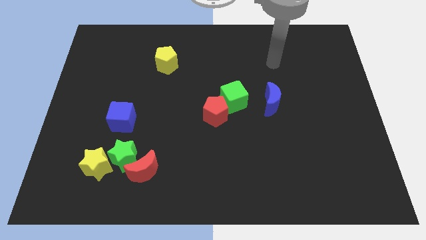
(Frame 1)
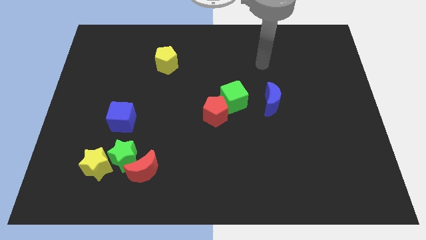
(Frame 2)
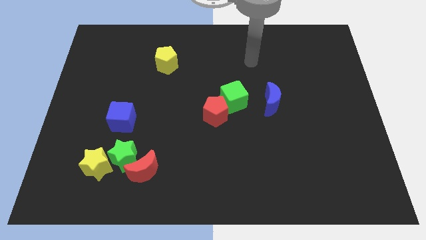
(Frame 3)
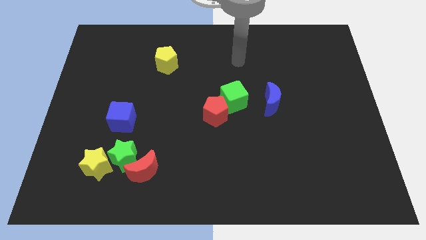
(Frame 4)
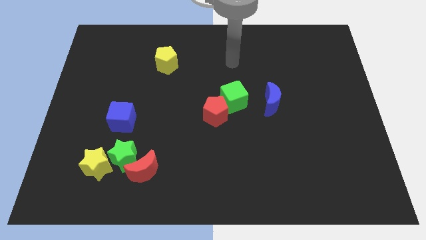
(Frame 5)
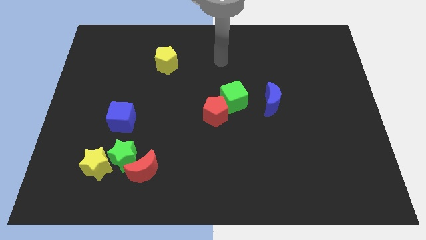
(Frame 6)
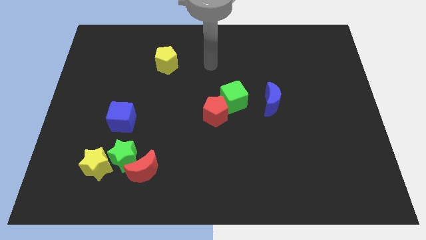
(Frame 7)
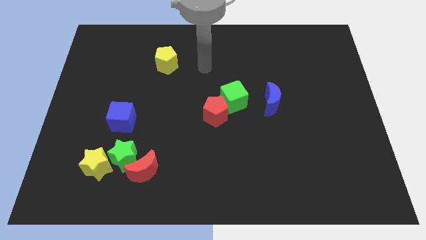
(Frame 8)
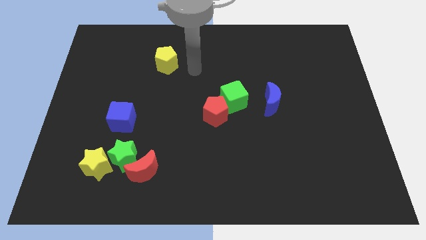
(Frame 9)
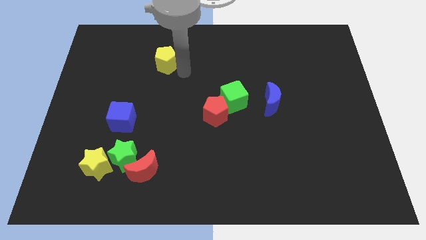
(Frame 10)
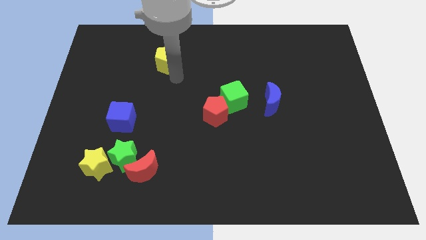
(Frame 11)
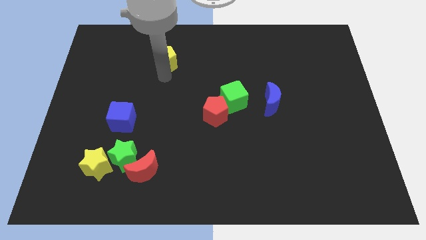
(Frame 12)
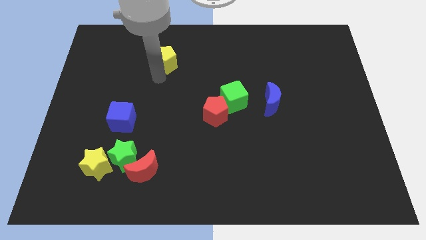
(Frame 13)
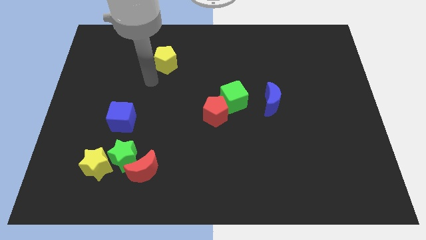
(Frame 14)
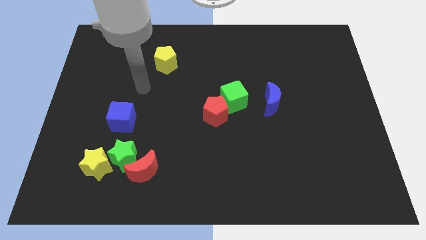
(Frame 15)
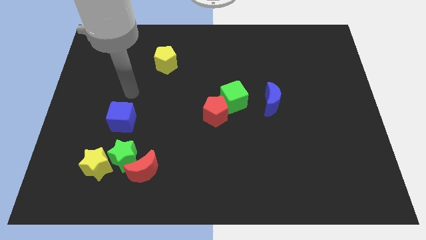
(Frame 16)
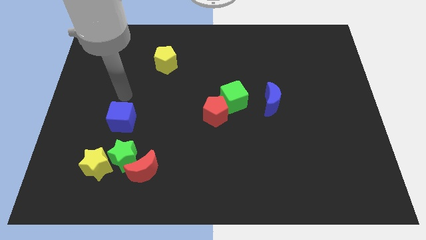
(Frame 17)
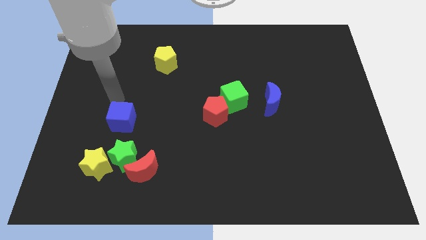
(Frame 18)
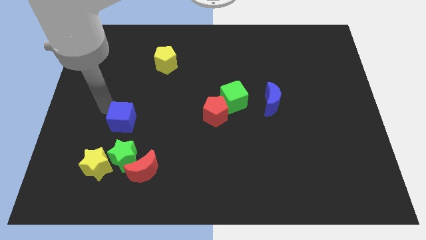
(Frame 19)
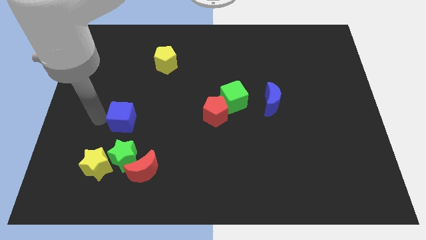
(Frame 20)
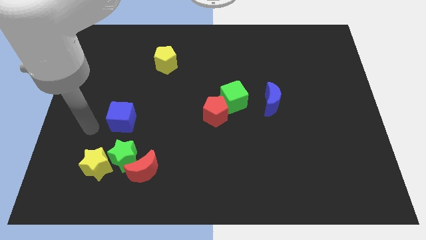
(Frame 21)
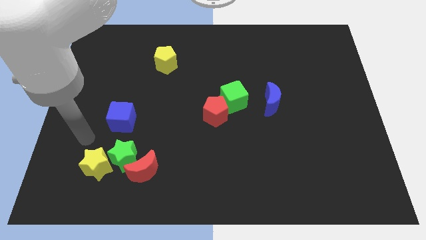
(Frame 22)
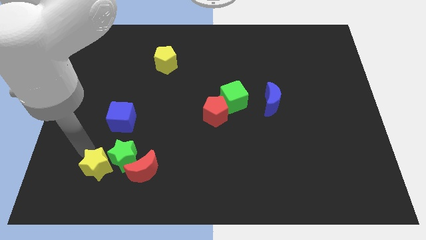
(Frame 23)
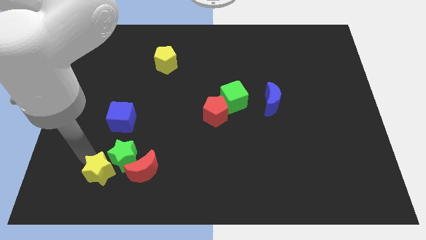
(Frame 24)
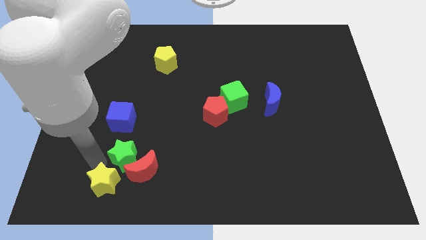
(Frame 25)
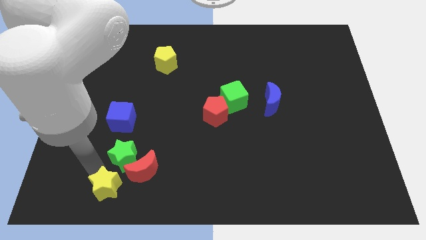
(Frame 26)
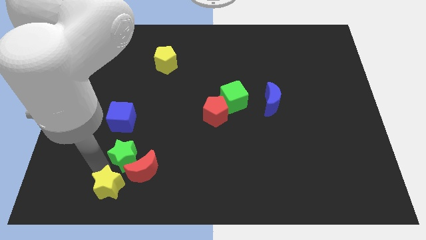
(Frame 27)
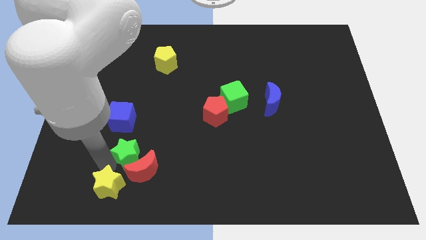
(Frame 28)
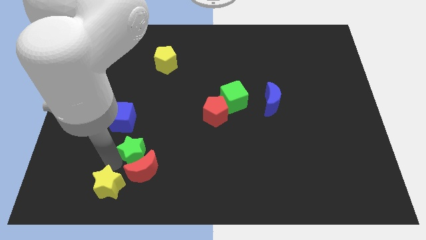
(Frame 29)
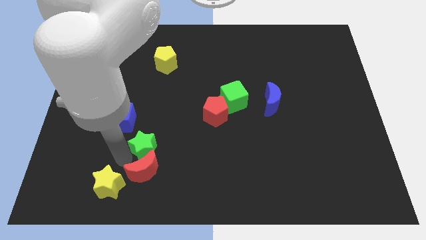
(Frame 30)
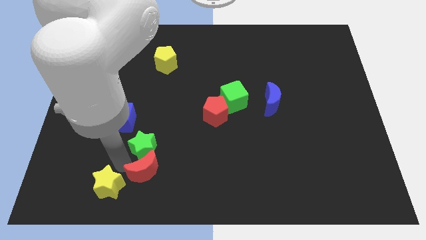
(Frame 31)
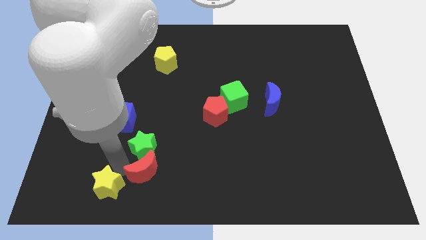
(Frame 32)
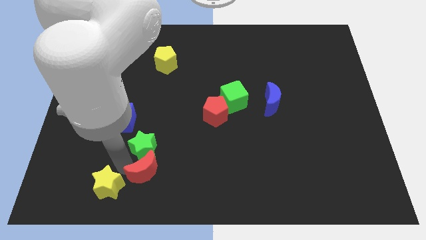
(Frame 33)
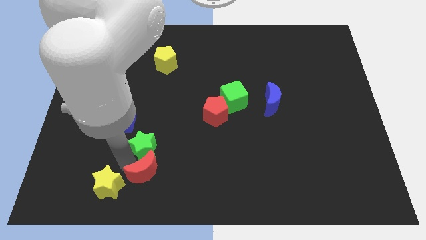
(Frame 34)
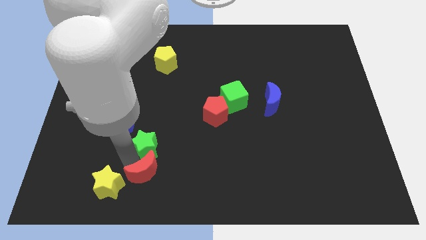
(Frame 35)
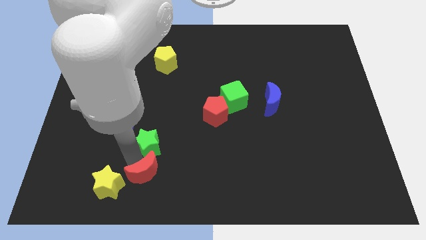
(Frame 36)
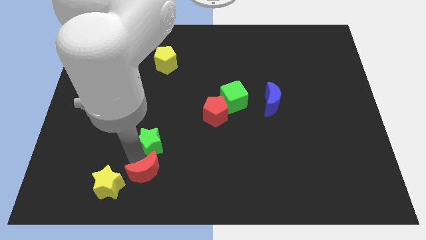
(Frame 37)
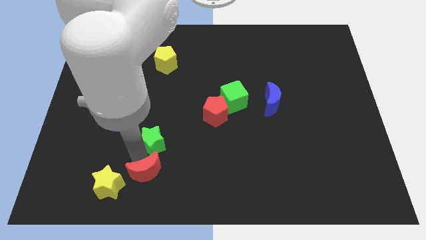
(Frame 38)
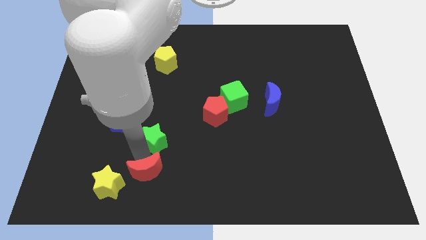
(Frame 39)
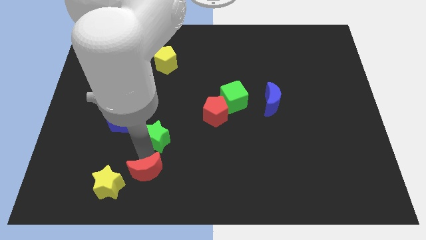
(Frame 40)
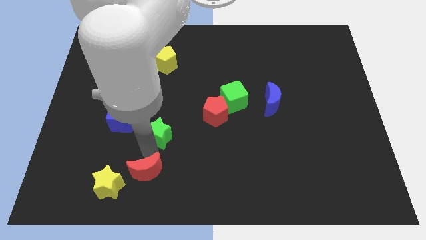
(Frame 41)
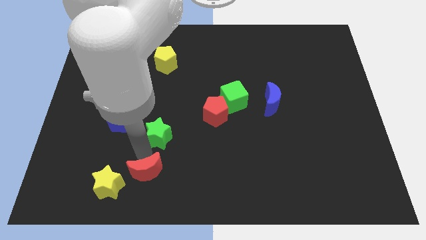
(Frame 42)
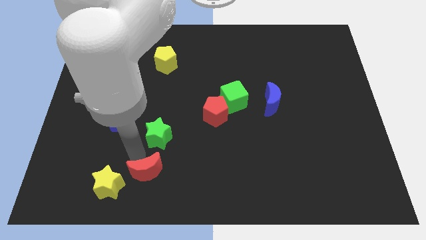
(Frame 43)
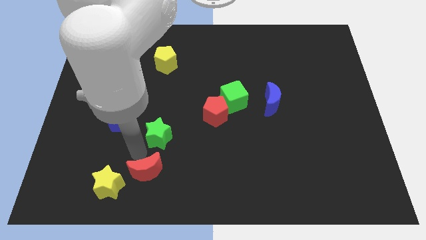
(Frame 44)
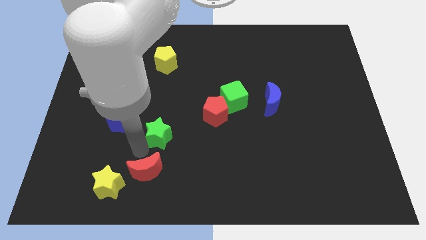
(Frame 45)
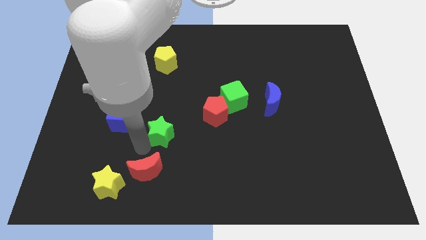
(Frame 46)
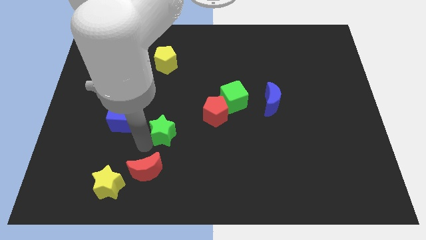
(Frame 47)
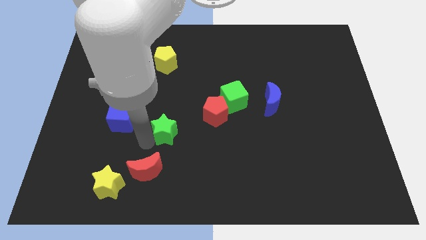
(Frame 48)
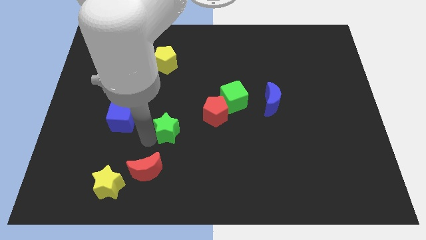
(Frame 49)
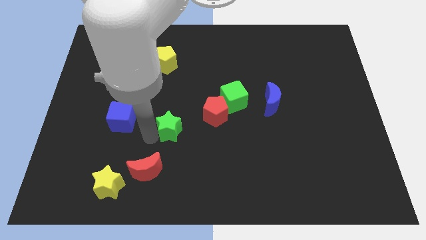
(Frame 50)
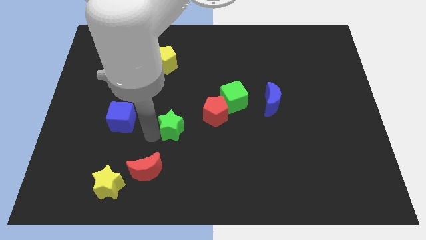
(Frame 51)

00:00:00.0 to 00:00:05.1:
put the green star to the center

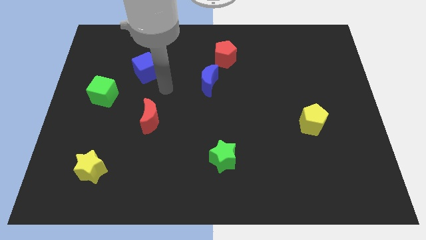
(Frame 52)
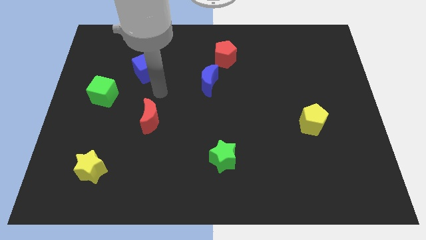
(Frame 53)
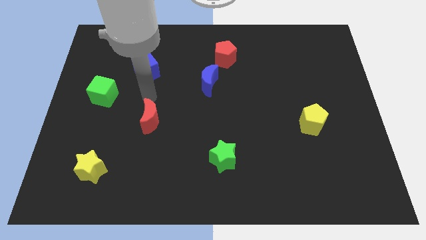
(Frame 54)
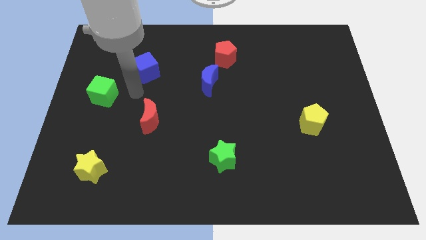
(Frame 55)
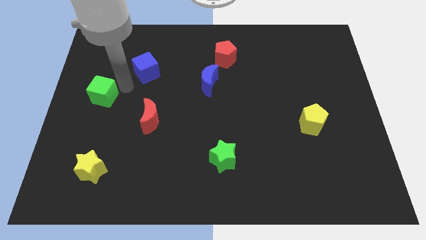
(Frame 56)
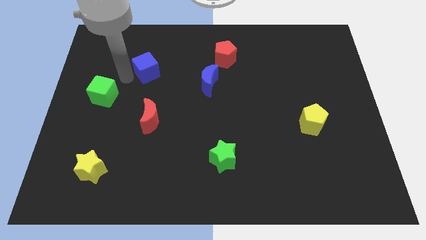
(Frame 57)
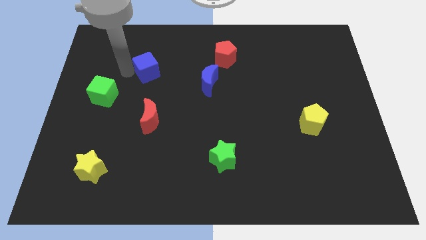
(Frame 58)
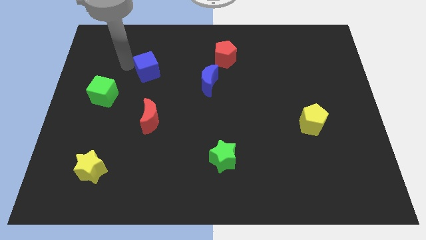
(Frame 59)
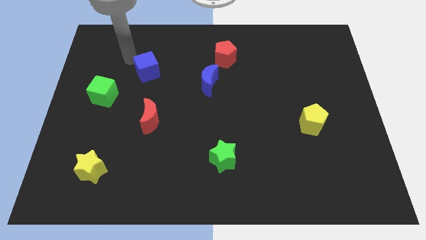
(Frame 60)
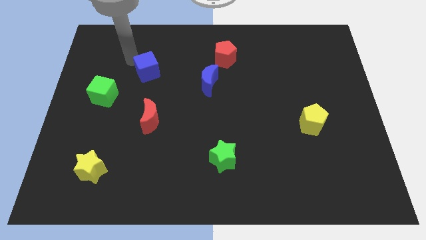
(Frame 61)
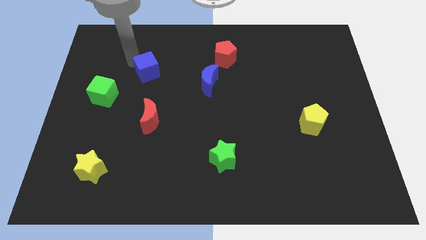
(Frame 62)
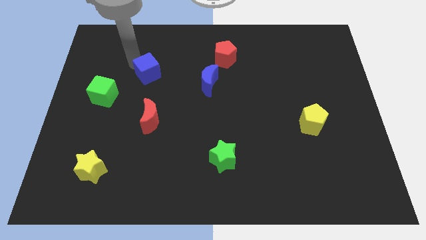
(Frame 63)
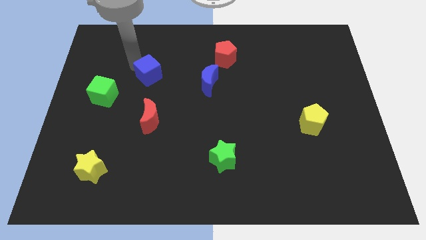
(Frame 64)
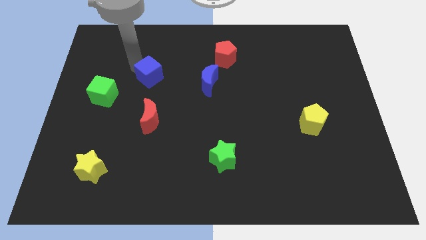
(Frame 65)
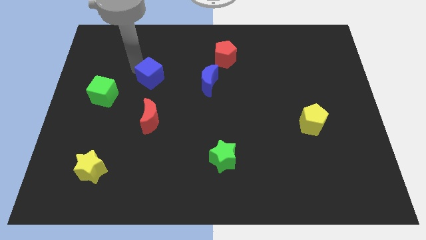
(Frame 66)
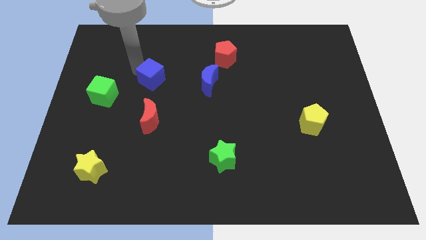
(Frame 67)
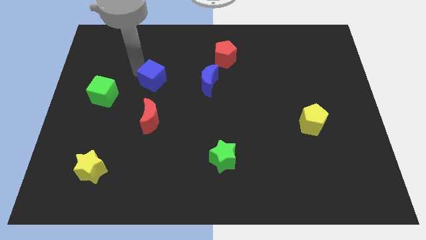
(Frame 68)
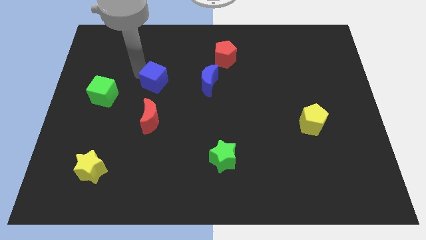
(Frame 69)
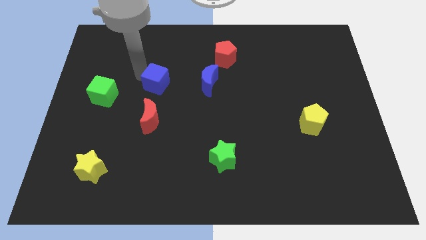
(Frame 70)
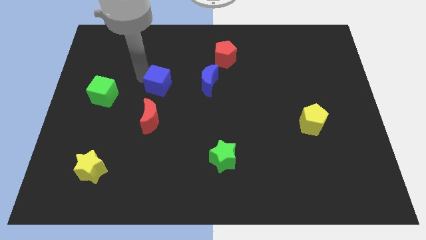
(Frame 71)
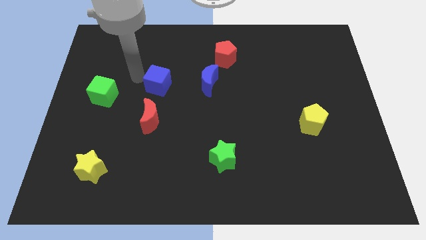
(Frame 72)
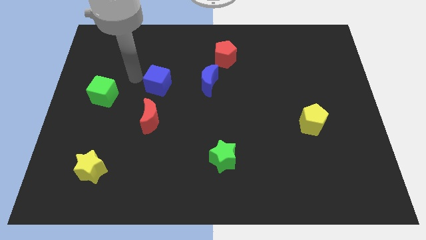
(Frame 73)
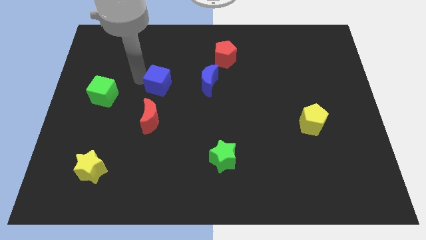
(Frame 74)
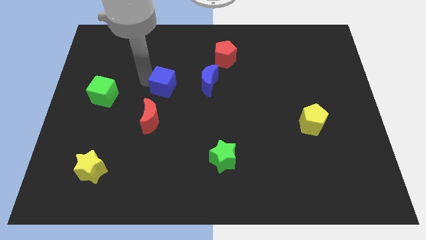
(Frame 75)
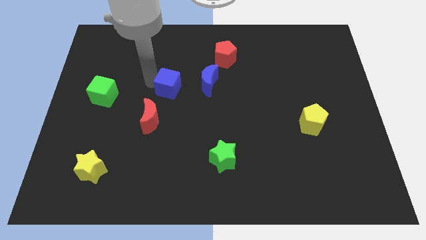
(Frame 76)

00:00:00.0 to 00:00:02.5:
put the blue cube to the center of the board
